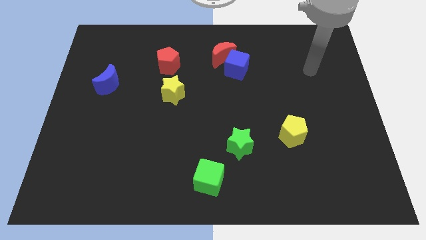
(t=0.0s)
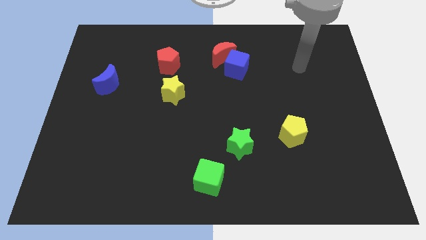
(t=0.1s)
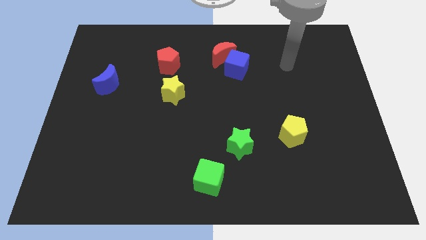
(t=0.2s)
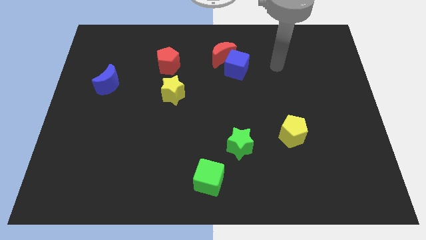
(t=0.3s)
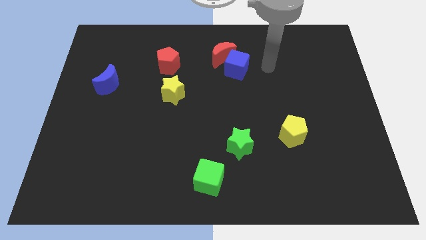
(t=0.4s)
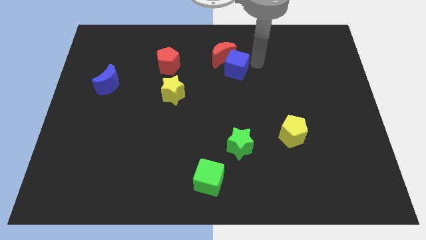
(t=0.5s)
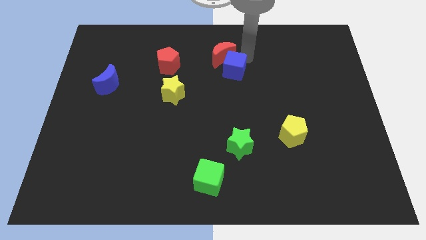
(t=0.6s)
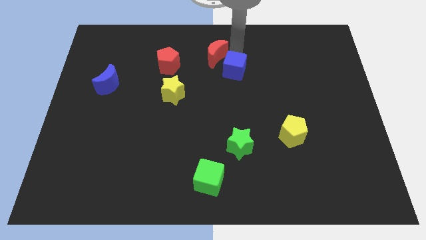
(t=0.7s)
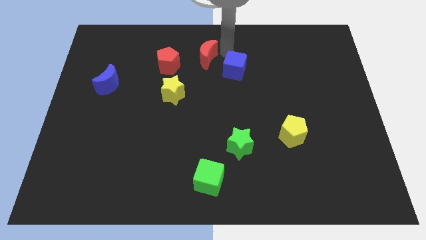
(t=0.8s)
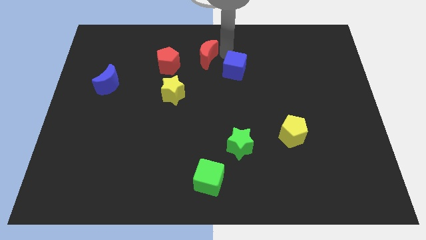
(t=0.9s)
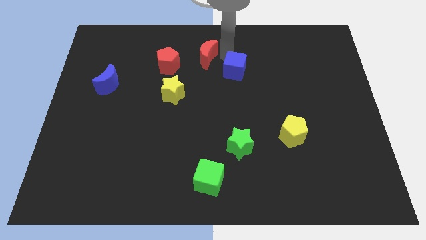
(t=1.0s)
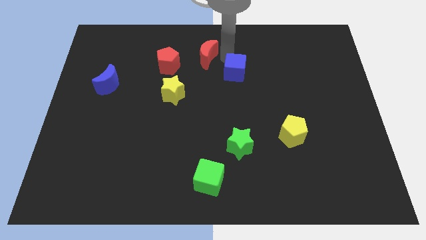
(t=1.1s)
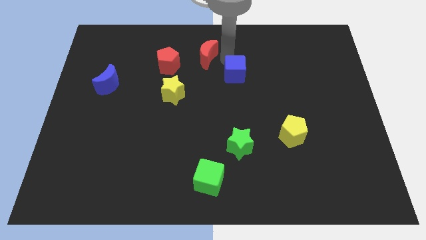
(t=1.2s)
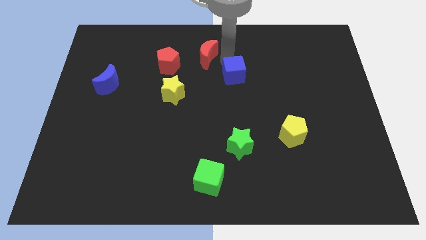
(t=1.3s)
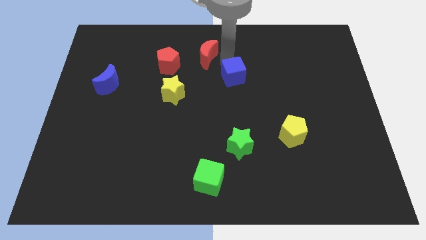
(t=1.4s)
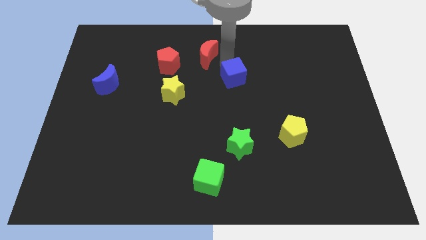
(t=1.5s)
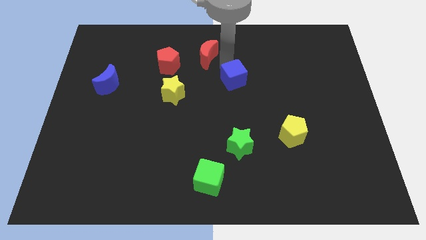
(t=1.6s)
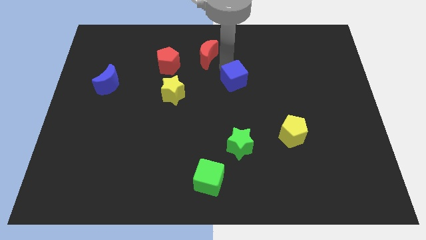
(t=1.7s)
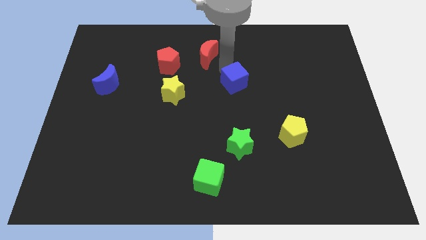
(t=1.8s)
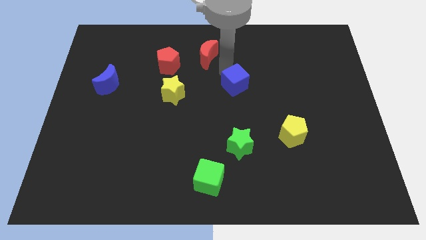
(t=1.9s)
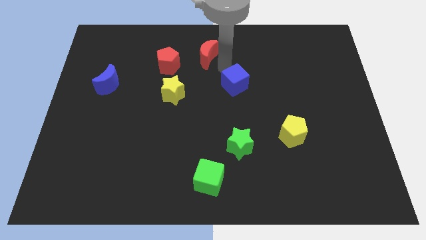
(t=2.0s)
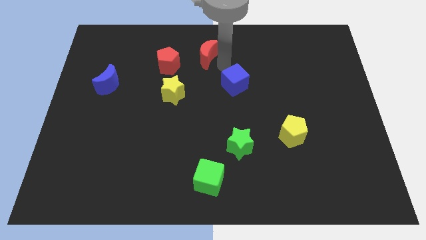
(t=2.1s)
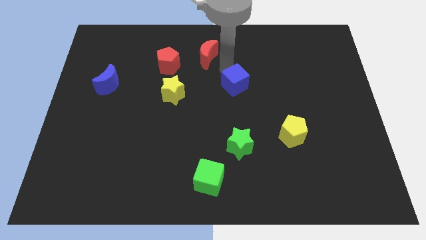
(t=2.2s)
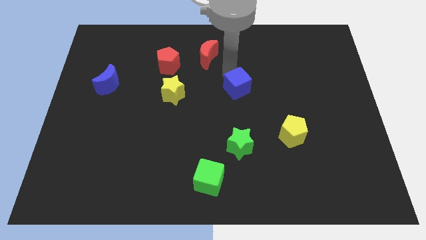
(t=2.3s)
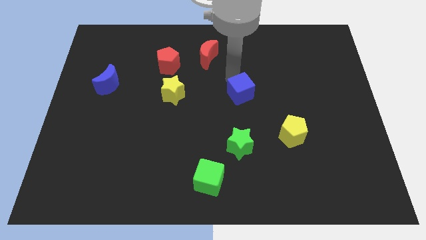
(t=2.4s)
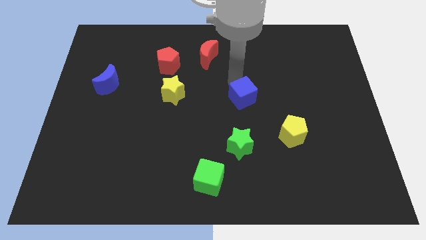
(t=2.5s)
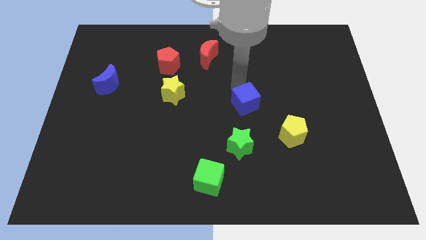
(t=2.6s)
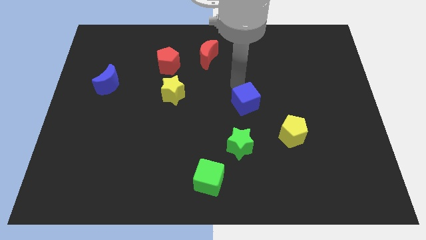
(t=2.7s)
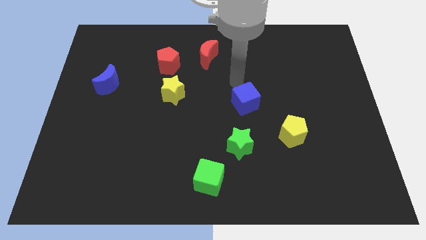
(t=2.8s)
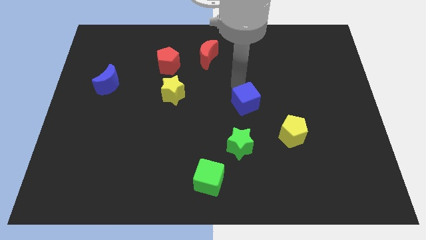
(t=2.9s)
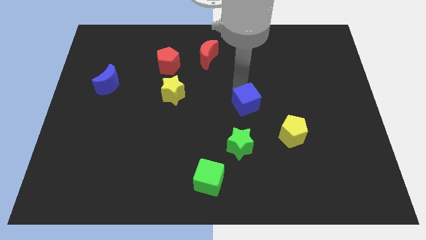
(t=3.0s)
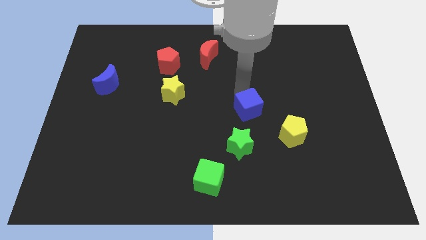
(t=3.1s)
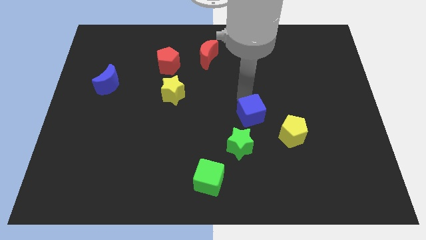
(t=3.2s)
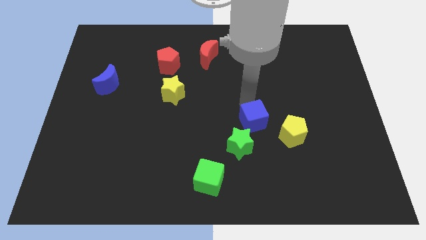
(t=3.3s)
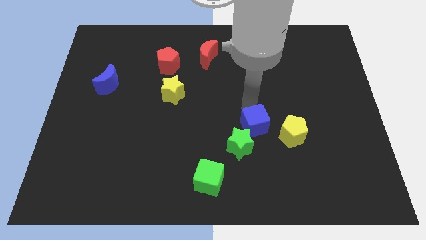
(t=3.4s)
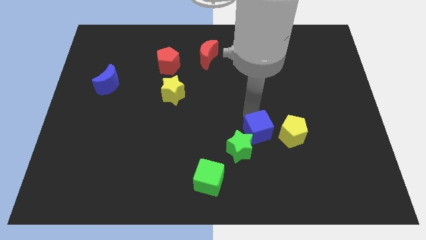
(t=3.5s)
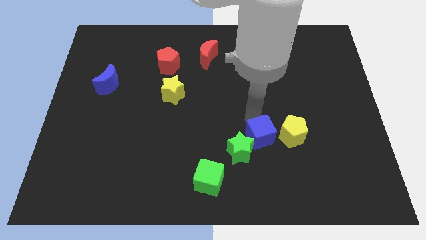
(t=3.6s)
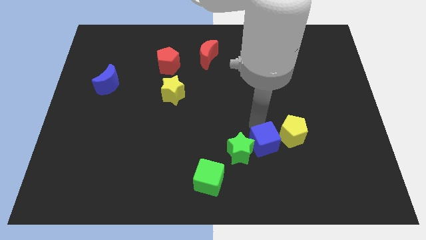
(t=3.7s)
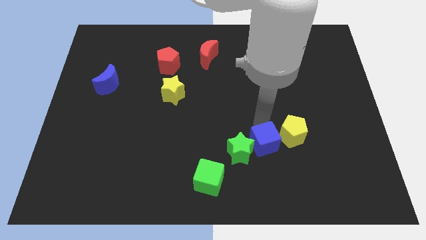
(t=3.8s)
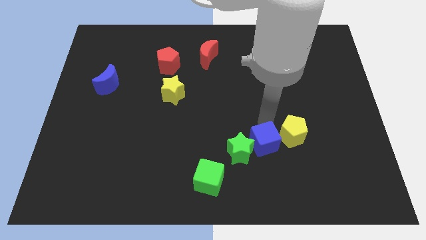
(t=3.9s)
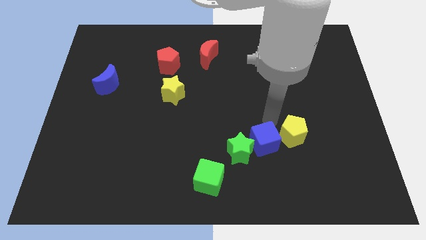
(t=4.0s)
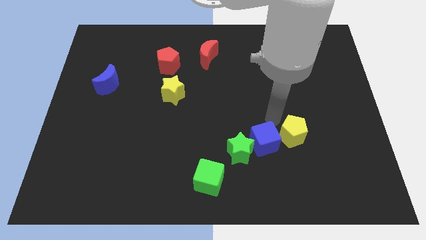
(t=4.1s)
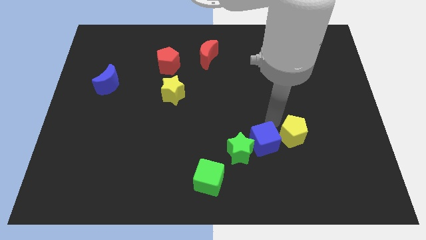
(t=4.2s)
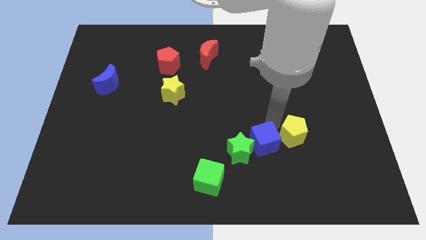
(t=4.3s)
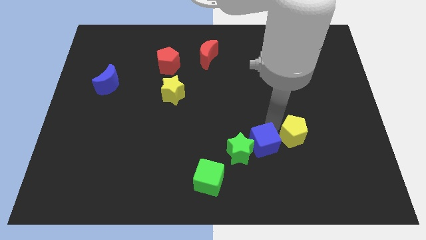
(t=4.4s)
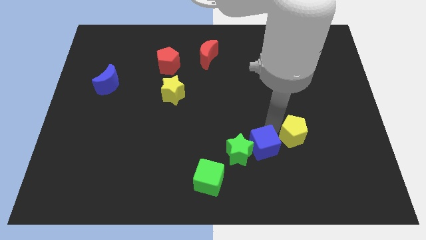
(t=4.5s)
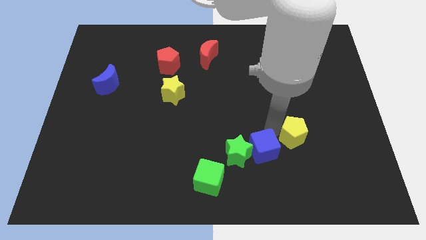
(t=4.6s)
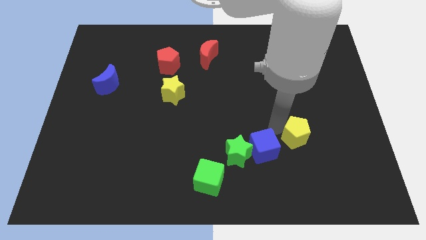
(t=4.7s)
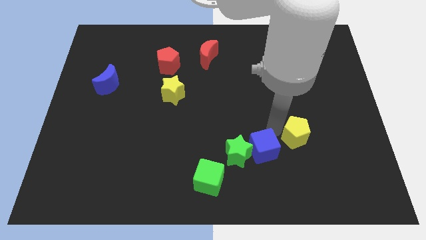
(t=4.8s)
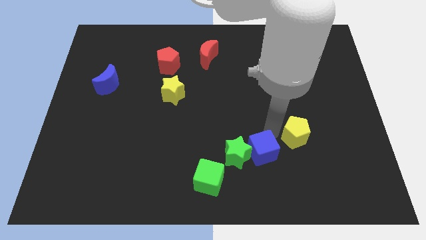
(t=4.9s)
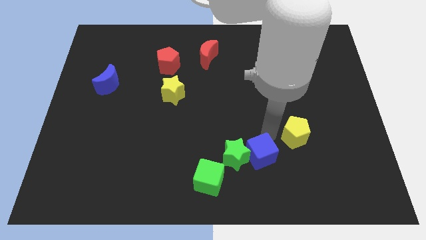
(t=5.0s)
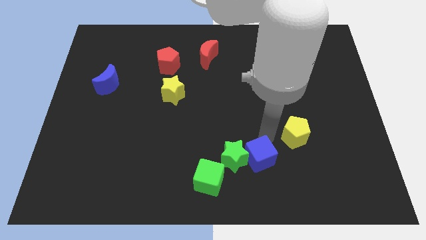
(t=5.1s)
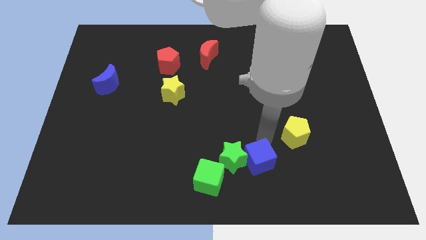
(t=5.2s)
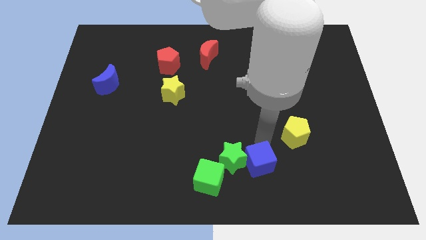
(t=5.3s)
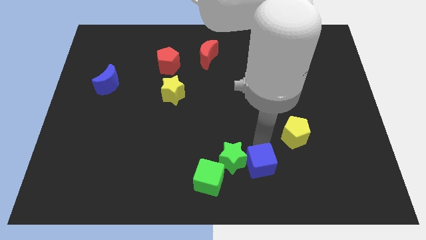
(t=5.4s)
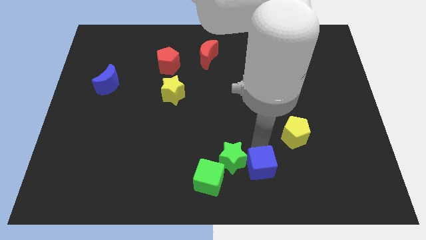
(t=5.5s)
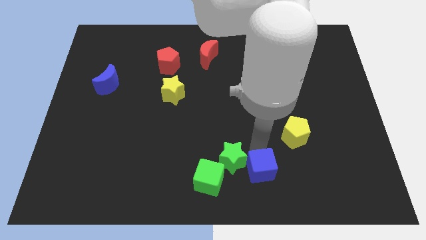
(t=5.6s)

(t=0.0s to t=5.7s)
push the blue cube to the bottom side
